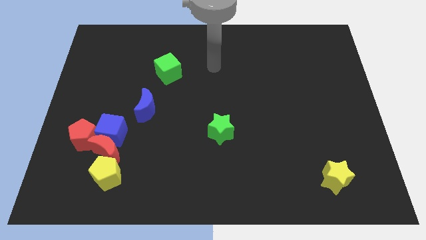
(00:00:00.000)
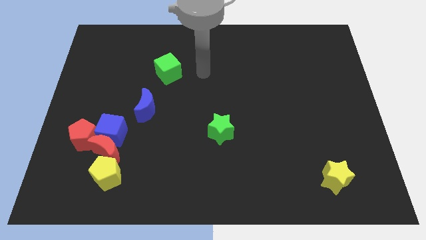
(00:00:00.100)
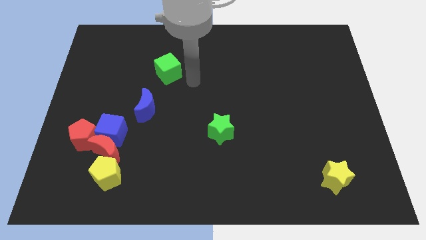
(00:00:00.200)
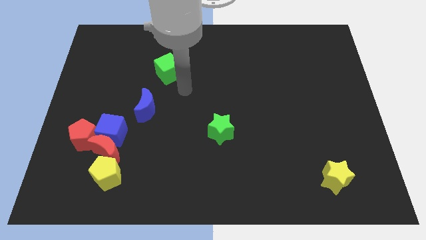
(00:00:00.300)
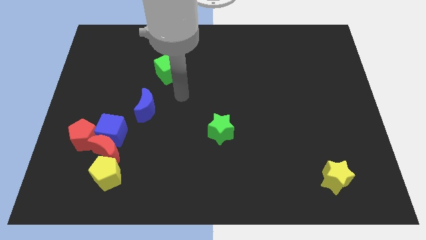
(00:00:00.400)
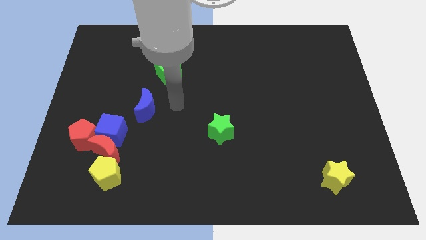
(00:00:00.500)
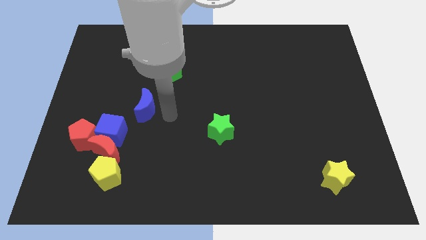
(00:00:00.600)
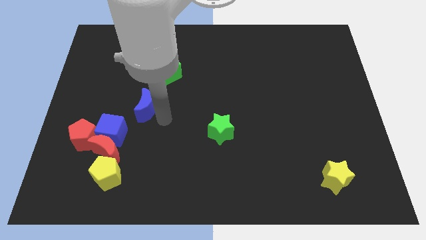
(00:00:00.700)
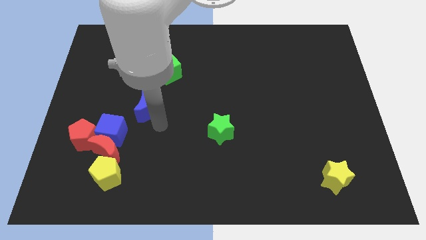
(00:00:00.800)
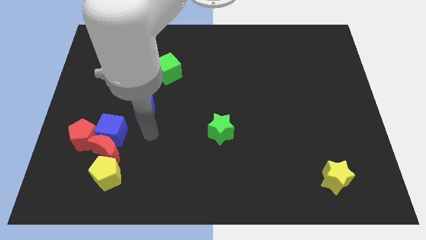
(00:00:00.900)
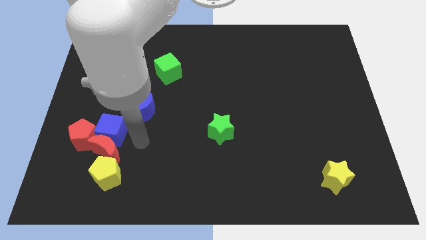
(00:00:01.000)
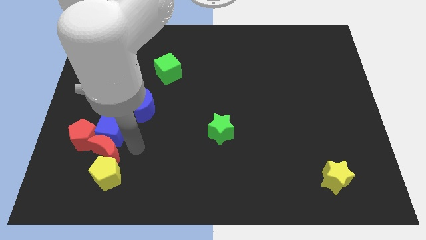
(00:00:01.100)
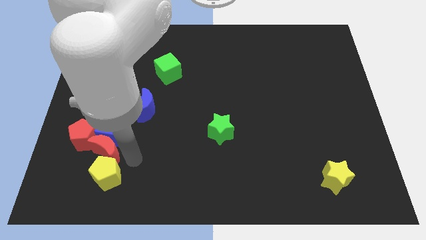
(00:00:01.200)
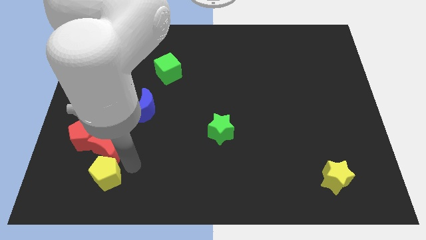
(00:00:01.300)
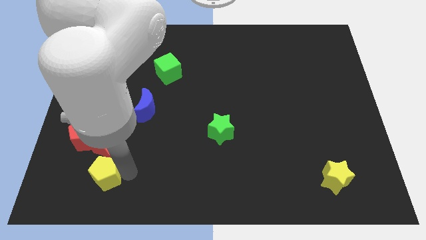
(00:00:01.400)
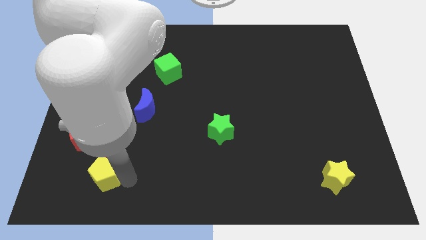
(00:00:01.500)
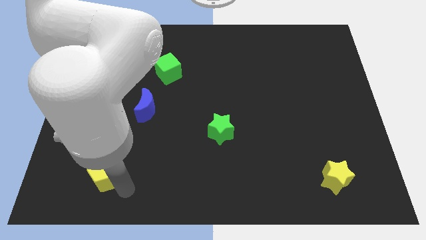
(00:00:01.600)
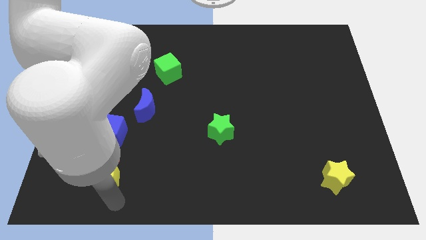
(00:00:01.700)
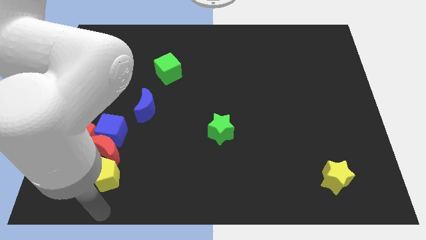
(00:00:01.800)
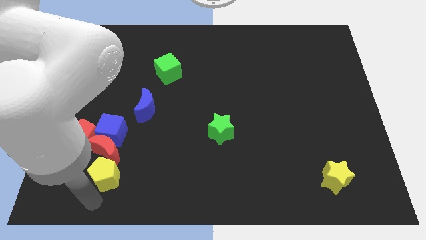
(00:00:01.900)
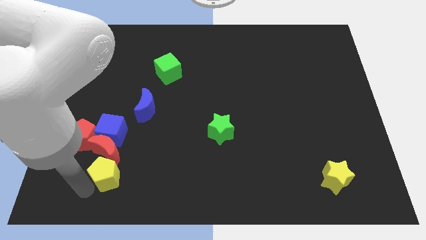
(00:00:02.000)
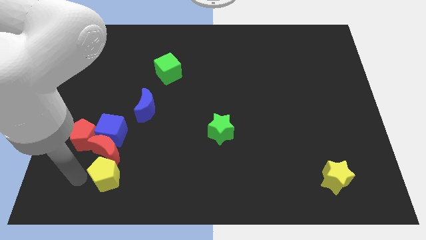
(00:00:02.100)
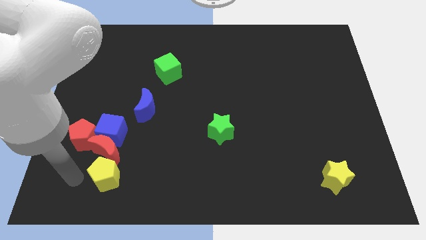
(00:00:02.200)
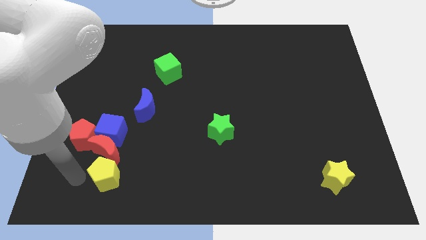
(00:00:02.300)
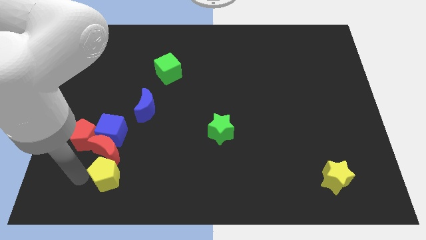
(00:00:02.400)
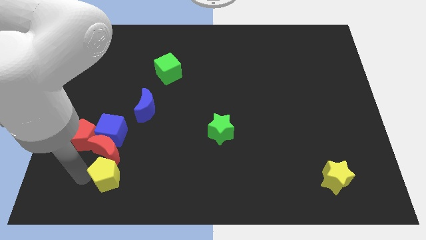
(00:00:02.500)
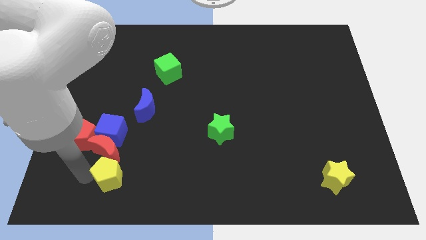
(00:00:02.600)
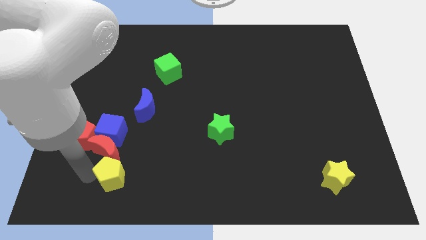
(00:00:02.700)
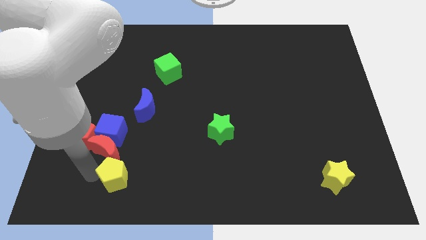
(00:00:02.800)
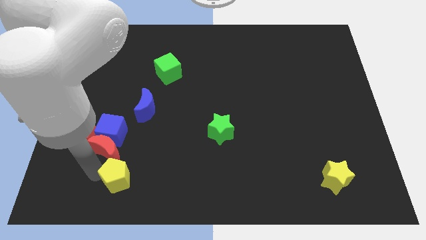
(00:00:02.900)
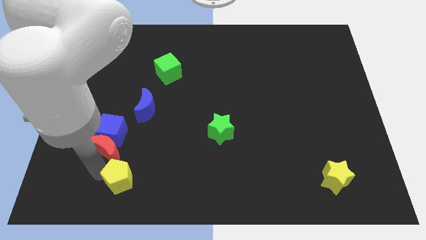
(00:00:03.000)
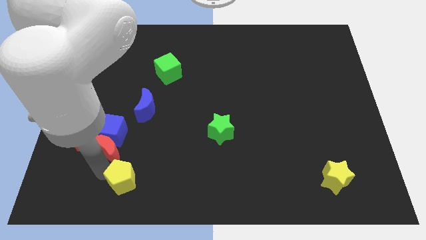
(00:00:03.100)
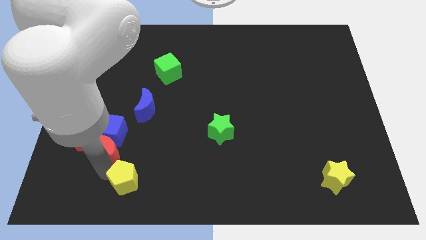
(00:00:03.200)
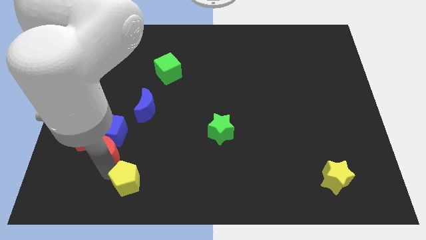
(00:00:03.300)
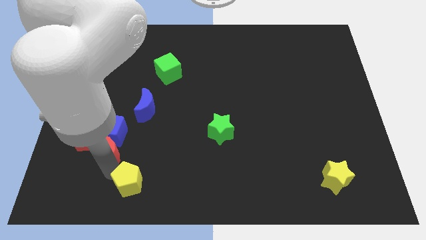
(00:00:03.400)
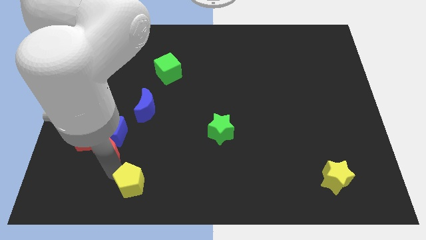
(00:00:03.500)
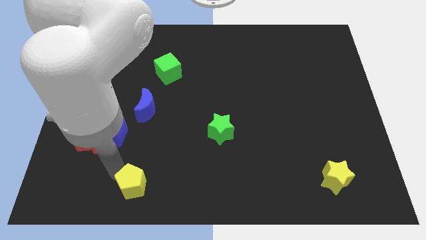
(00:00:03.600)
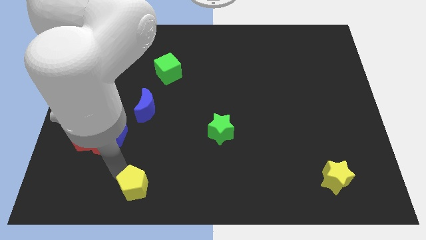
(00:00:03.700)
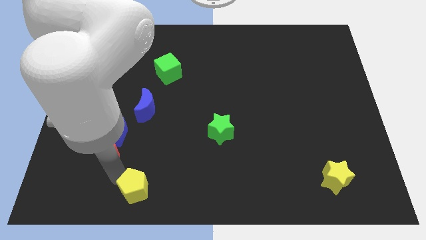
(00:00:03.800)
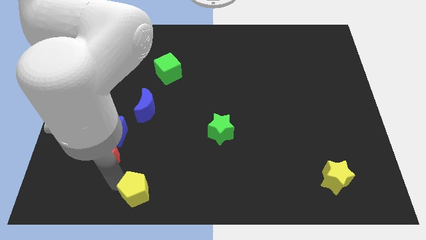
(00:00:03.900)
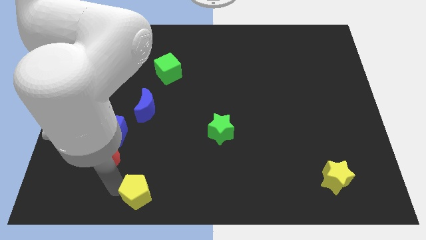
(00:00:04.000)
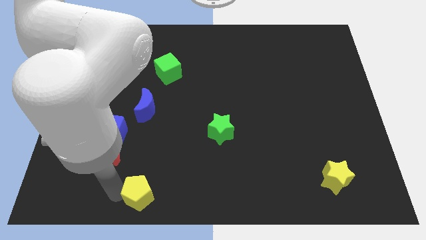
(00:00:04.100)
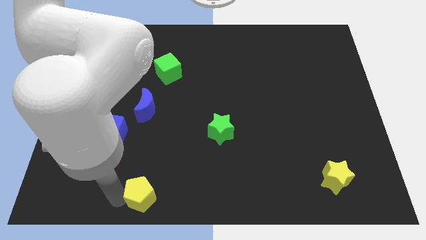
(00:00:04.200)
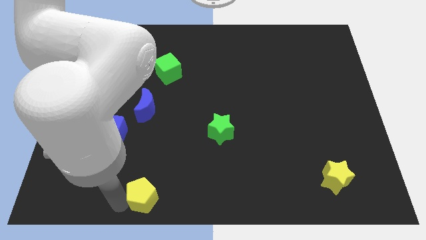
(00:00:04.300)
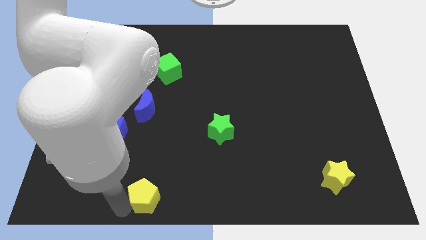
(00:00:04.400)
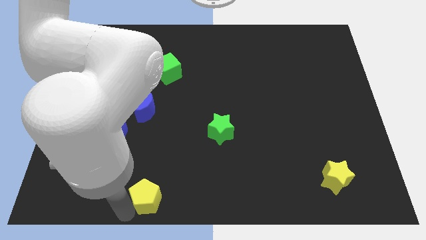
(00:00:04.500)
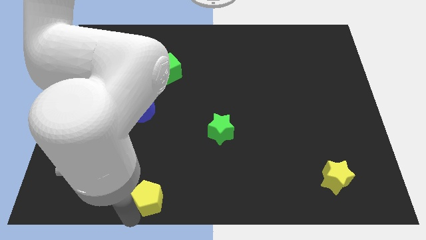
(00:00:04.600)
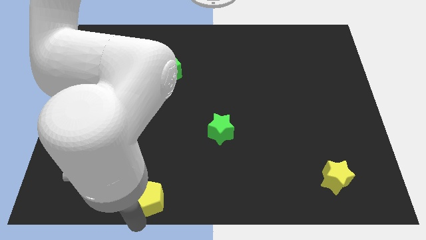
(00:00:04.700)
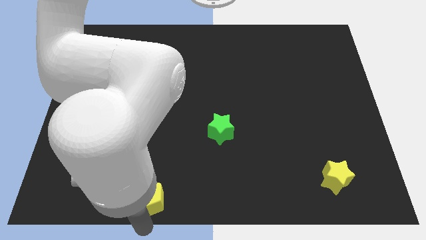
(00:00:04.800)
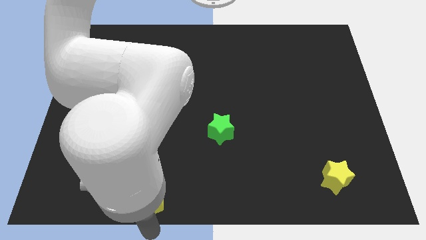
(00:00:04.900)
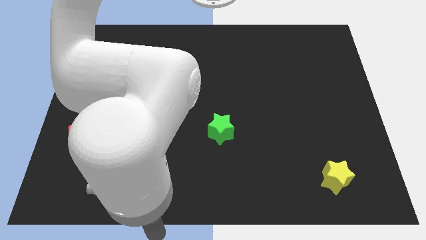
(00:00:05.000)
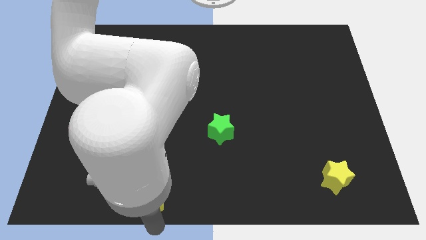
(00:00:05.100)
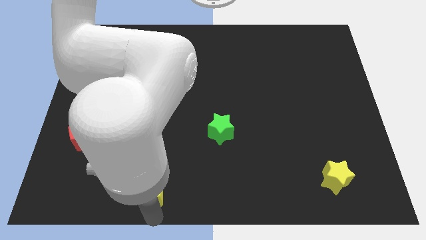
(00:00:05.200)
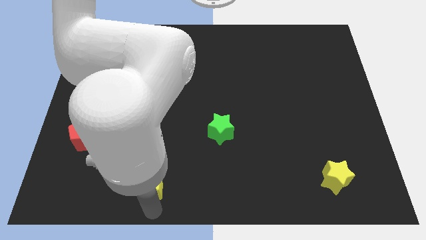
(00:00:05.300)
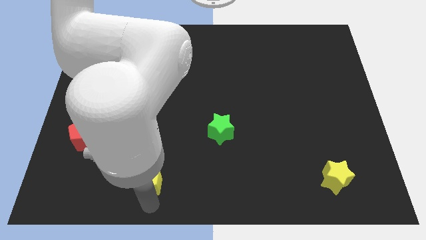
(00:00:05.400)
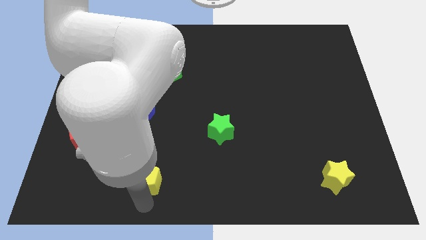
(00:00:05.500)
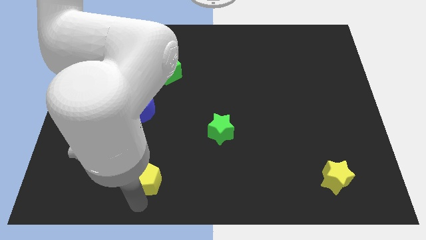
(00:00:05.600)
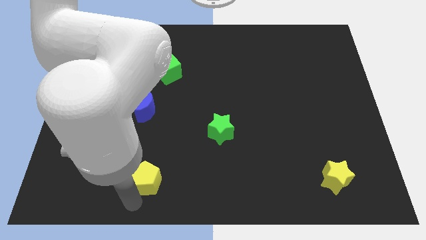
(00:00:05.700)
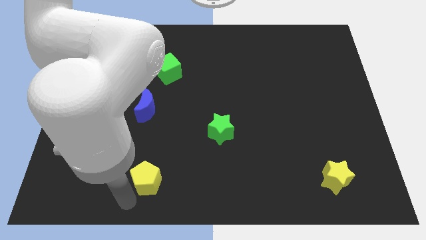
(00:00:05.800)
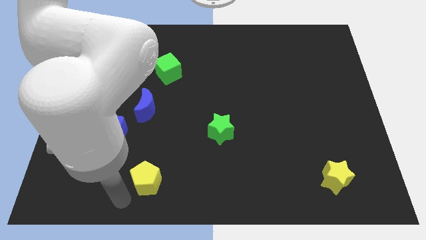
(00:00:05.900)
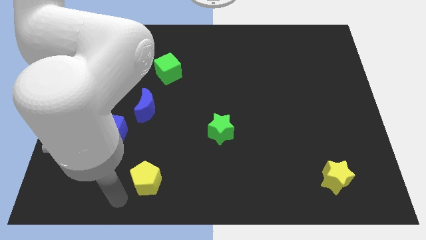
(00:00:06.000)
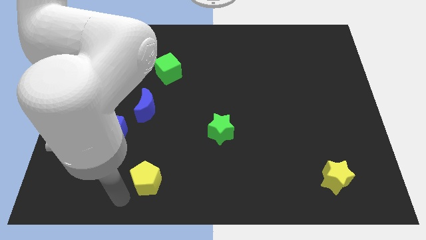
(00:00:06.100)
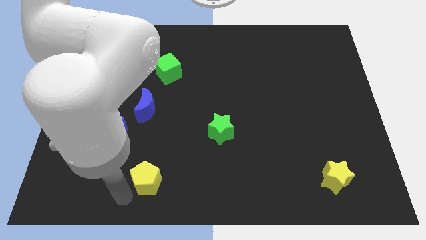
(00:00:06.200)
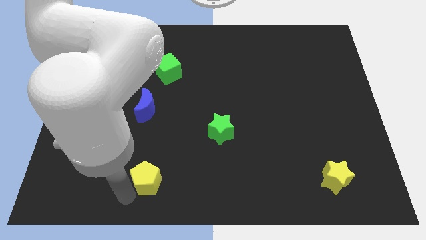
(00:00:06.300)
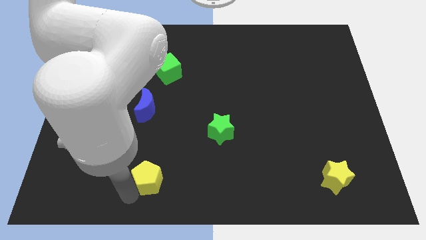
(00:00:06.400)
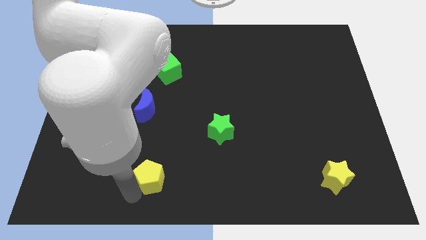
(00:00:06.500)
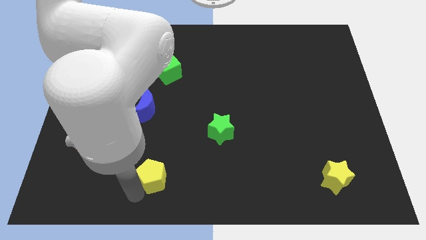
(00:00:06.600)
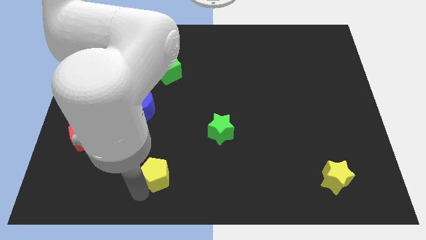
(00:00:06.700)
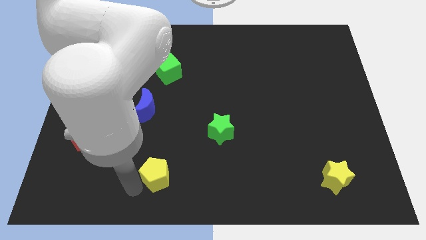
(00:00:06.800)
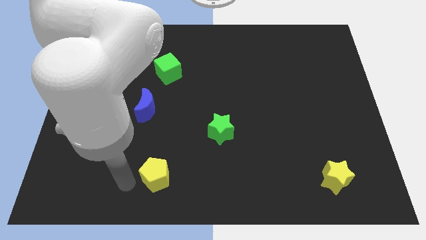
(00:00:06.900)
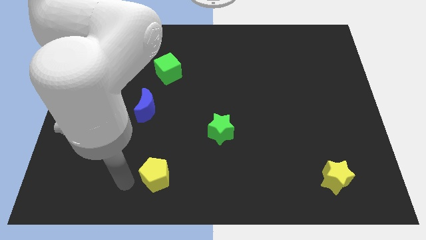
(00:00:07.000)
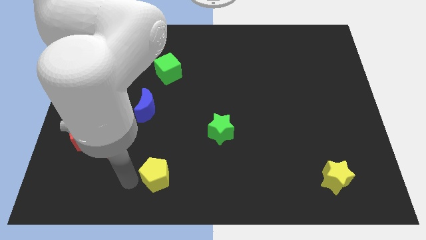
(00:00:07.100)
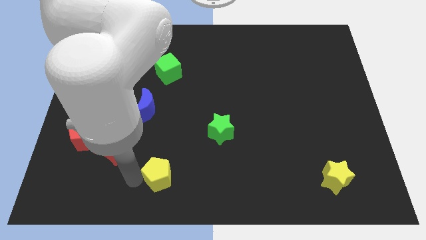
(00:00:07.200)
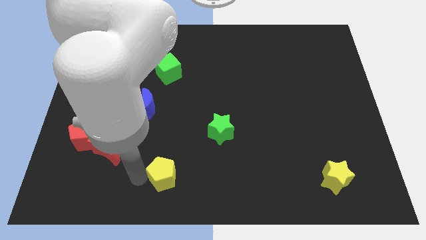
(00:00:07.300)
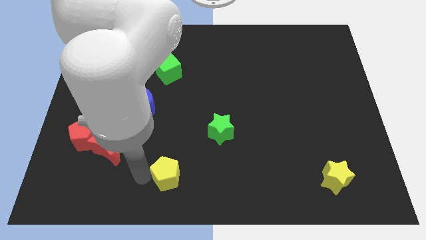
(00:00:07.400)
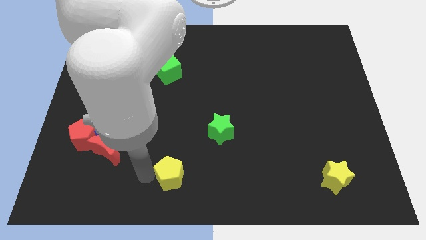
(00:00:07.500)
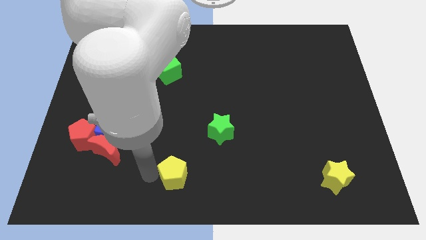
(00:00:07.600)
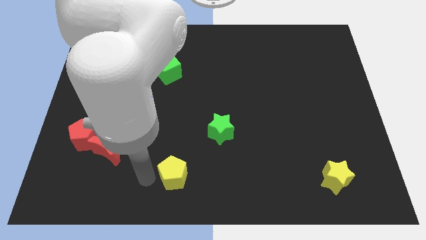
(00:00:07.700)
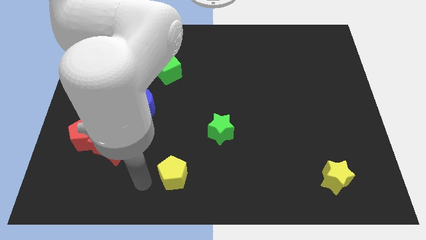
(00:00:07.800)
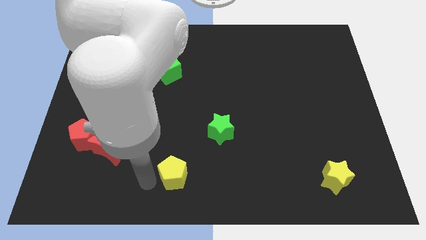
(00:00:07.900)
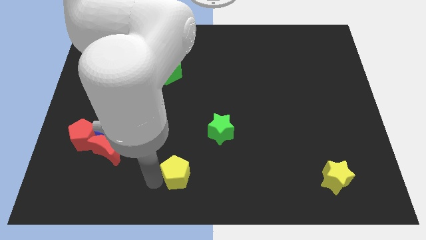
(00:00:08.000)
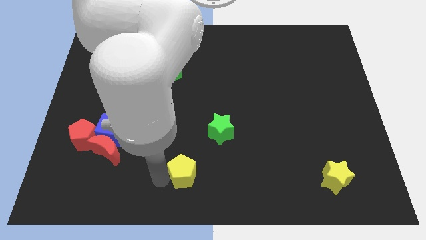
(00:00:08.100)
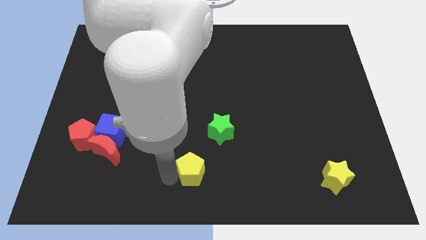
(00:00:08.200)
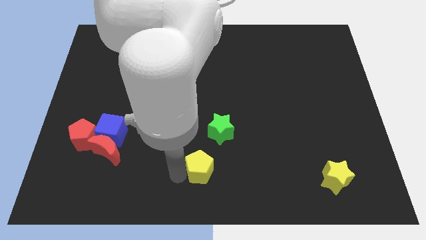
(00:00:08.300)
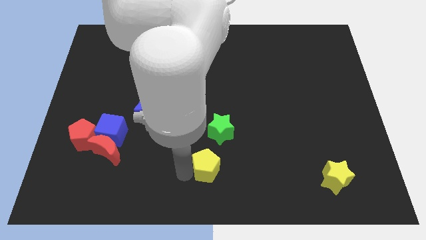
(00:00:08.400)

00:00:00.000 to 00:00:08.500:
slide the yellow pentagon right
